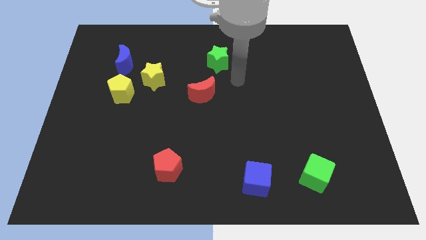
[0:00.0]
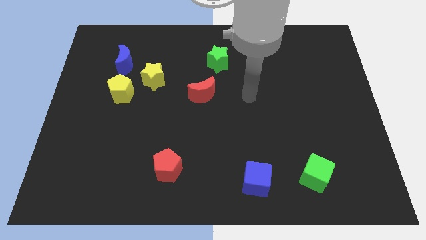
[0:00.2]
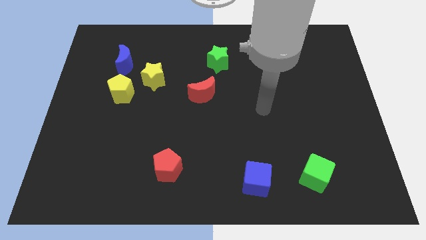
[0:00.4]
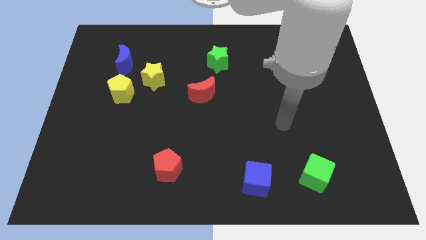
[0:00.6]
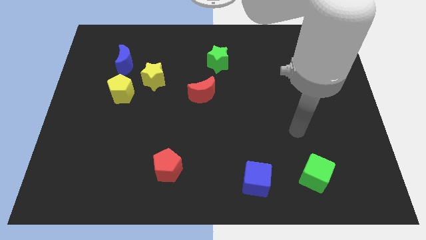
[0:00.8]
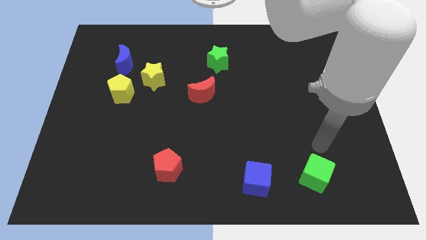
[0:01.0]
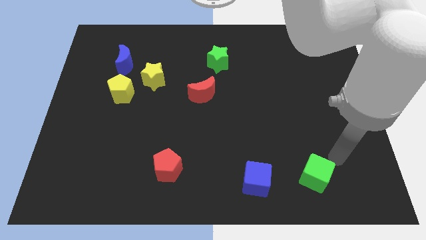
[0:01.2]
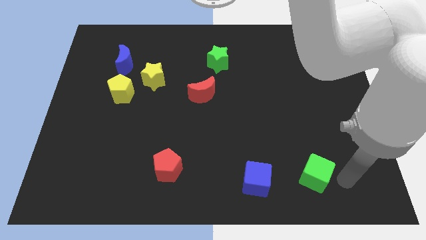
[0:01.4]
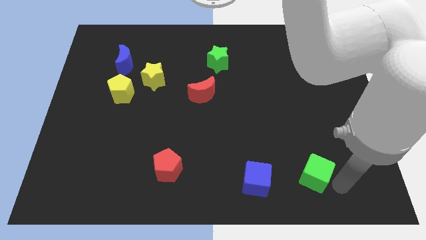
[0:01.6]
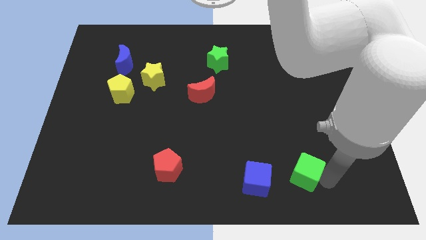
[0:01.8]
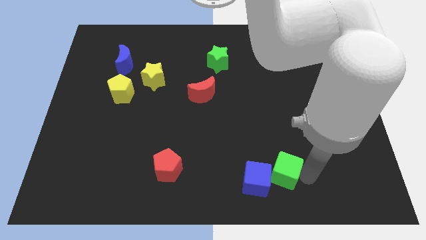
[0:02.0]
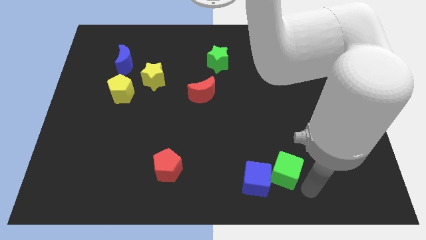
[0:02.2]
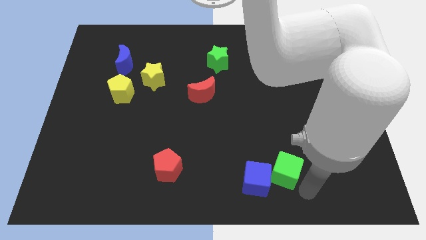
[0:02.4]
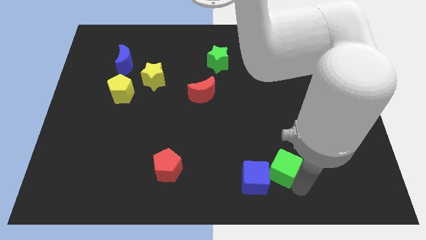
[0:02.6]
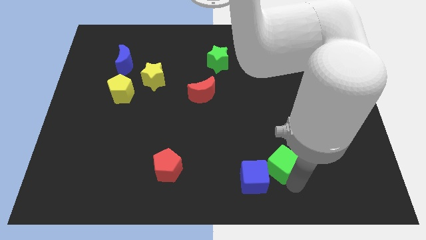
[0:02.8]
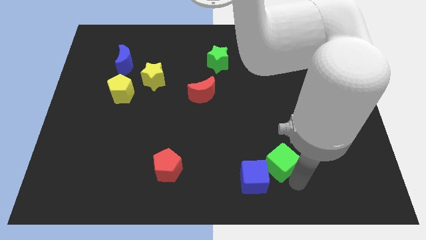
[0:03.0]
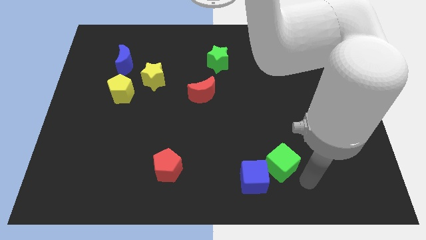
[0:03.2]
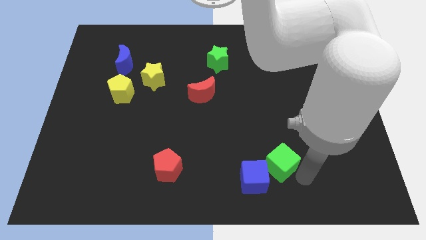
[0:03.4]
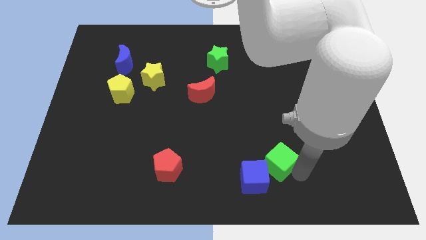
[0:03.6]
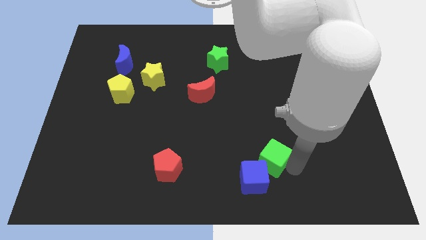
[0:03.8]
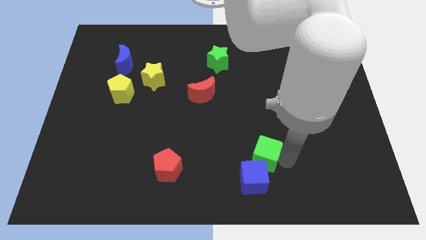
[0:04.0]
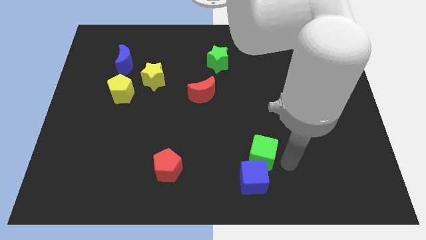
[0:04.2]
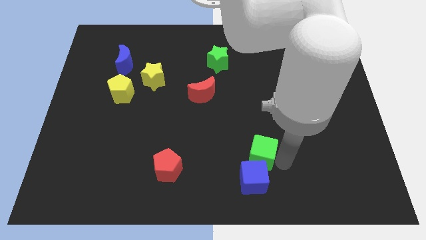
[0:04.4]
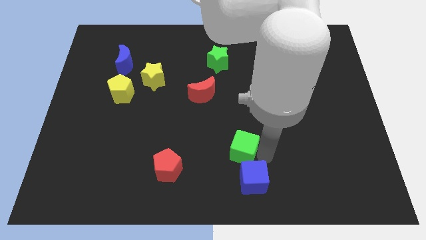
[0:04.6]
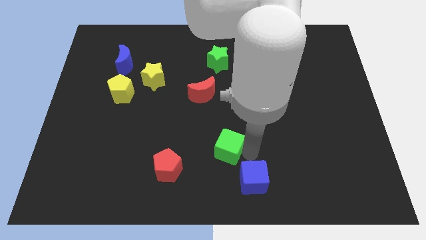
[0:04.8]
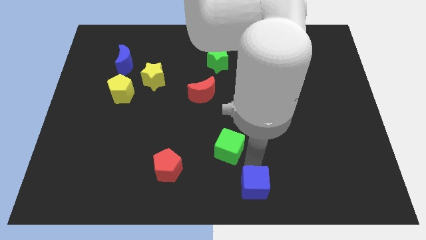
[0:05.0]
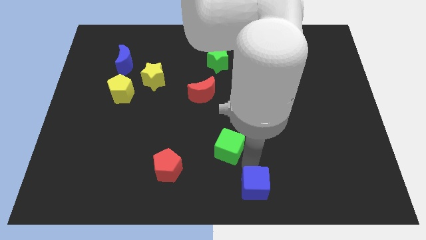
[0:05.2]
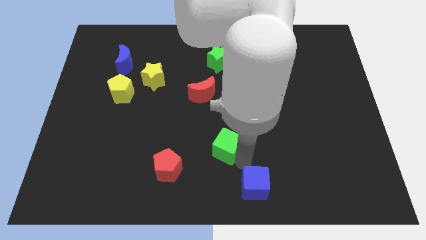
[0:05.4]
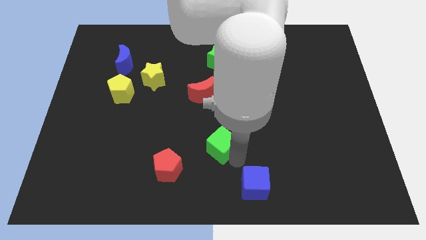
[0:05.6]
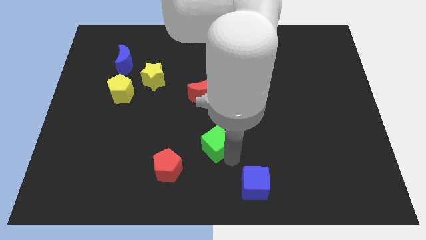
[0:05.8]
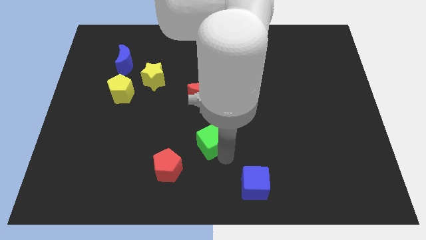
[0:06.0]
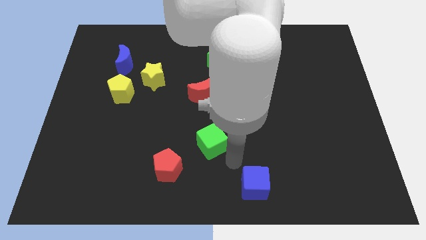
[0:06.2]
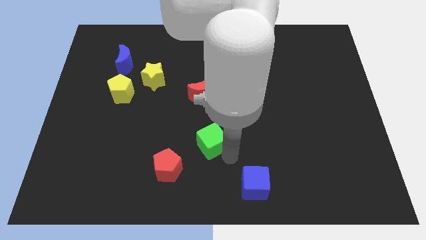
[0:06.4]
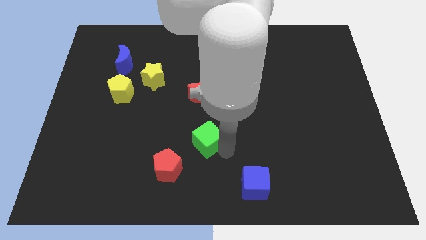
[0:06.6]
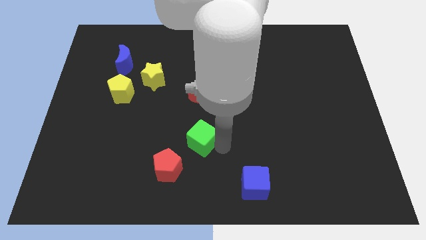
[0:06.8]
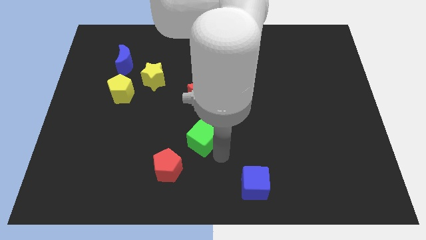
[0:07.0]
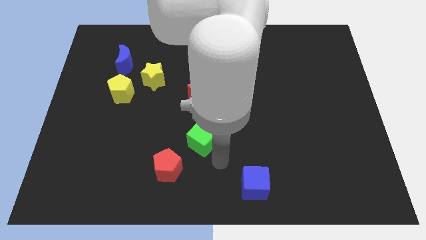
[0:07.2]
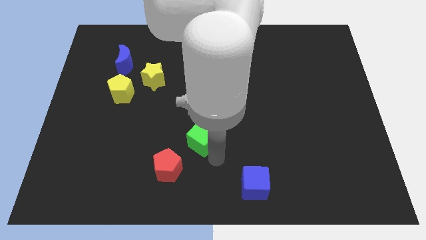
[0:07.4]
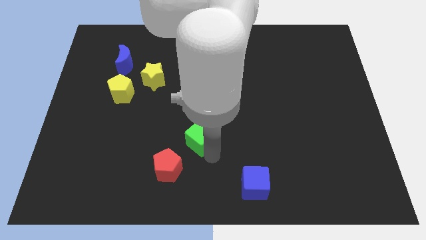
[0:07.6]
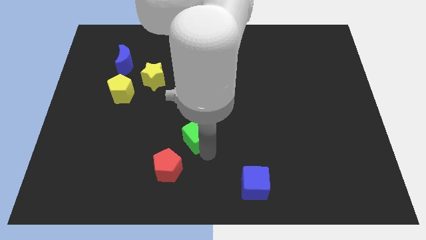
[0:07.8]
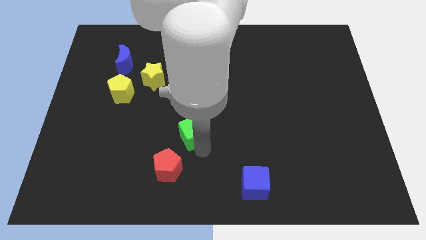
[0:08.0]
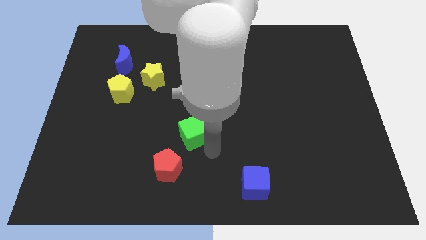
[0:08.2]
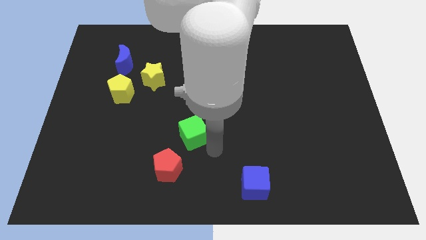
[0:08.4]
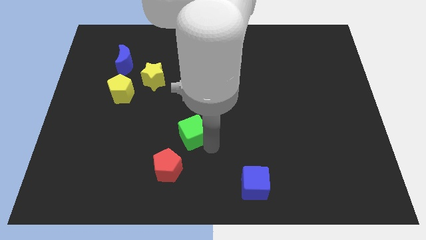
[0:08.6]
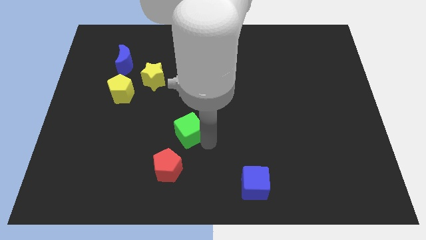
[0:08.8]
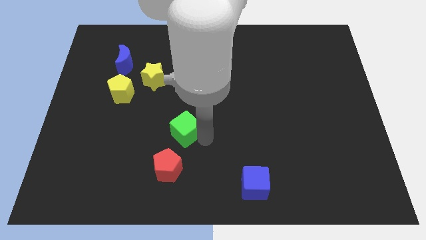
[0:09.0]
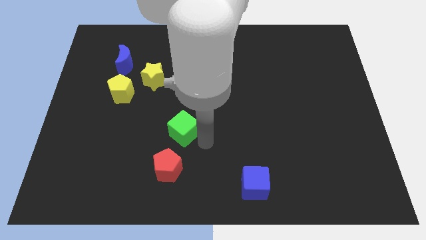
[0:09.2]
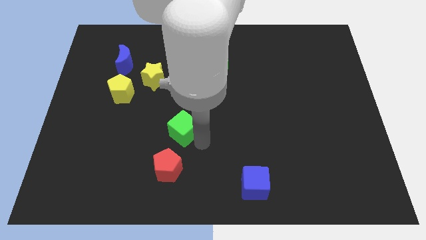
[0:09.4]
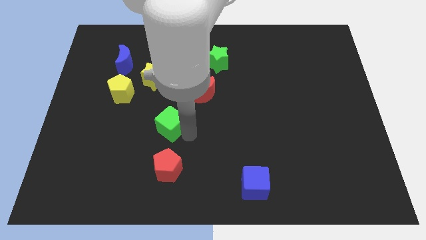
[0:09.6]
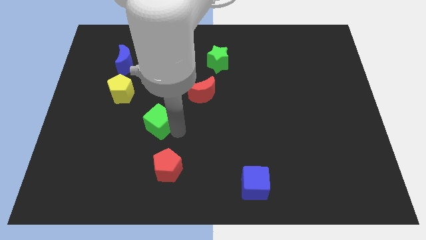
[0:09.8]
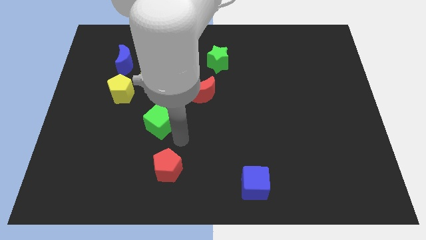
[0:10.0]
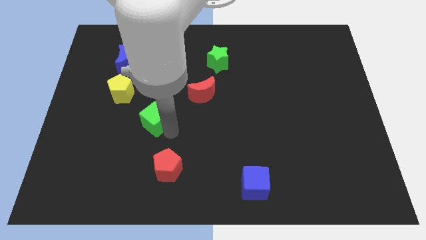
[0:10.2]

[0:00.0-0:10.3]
slide the green cube diagonally down and to the right of the yellow pentagon

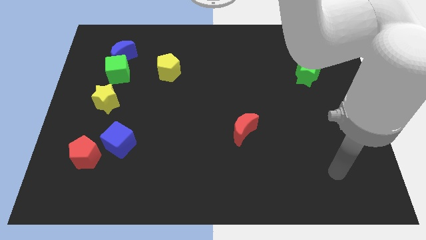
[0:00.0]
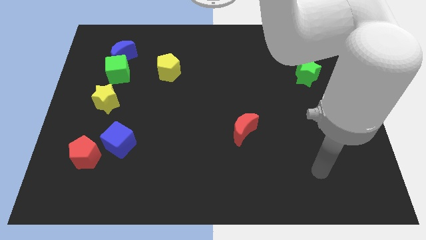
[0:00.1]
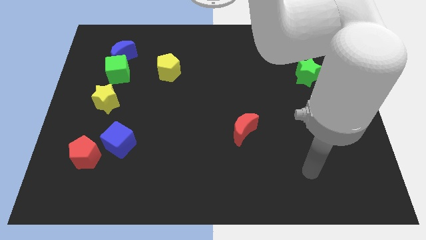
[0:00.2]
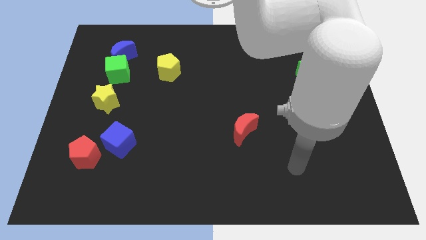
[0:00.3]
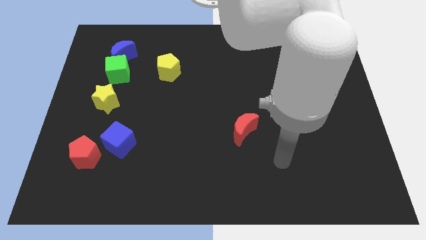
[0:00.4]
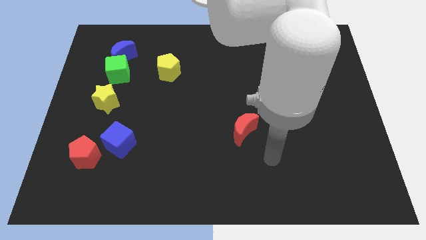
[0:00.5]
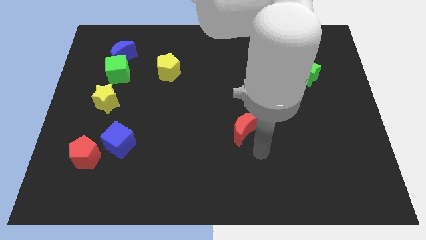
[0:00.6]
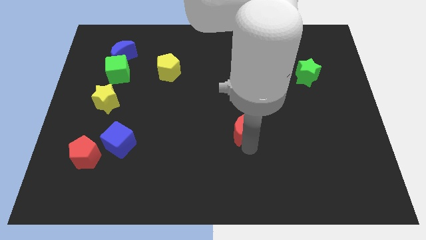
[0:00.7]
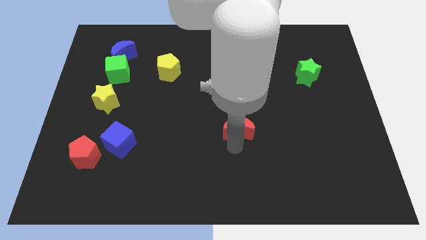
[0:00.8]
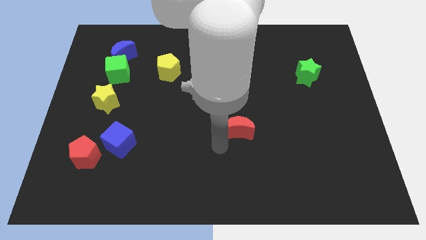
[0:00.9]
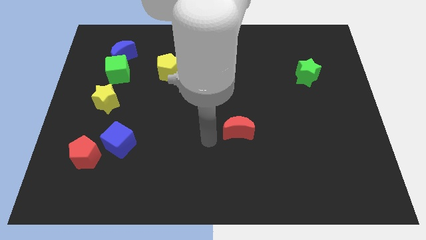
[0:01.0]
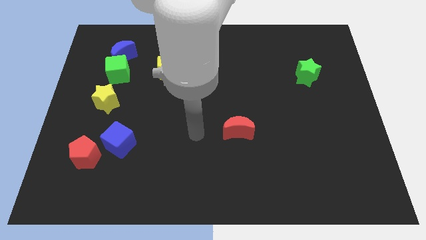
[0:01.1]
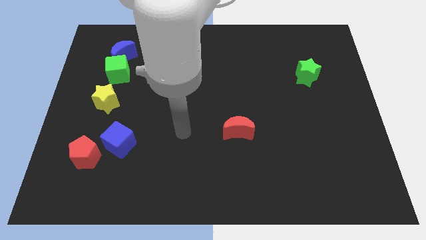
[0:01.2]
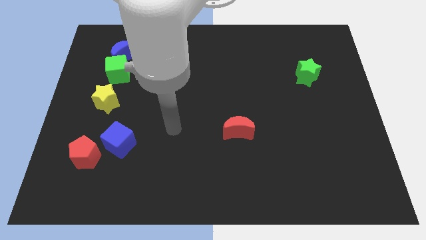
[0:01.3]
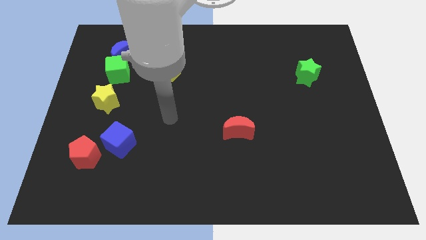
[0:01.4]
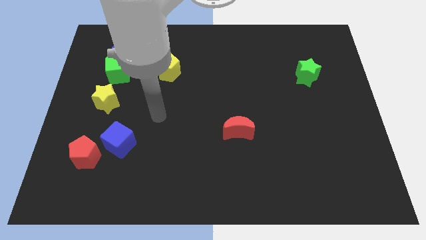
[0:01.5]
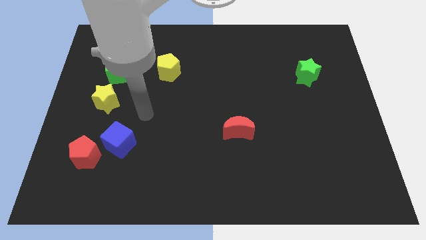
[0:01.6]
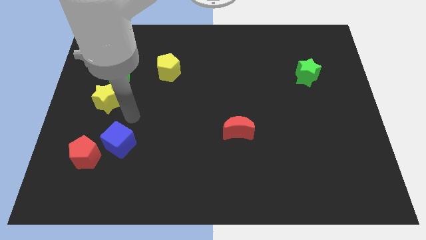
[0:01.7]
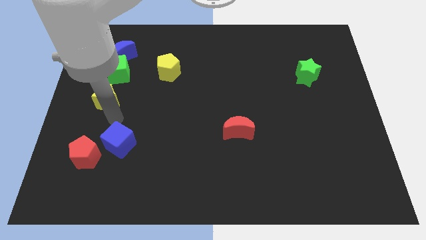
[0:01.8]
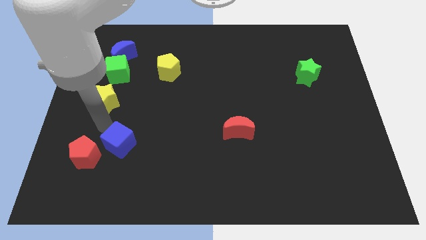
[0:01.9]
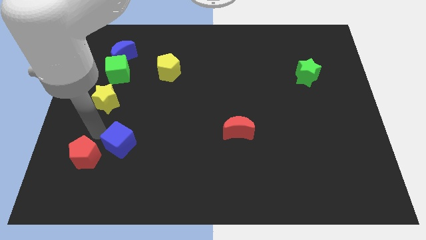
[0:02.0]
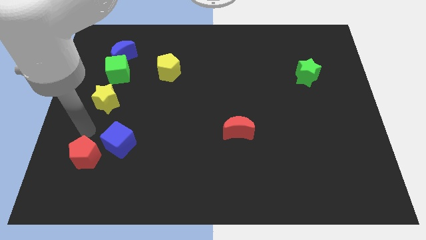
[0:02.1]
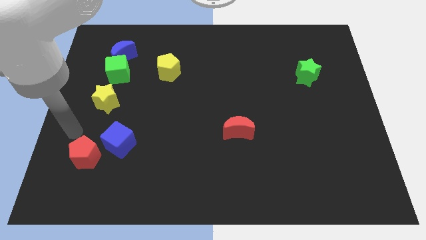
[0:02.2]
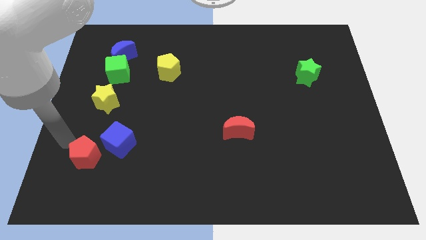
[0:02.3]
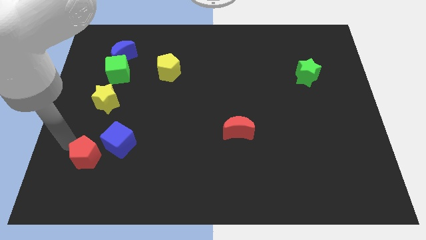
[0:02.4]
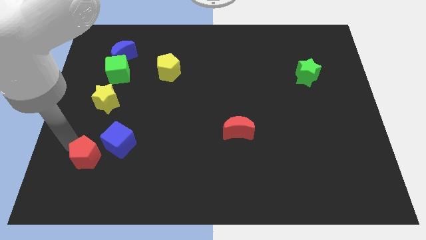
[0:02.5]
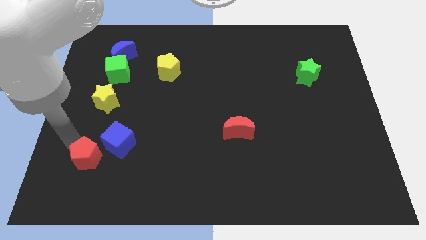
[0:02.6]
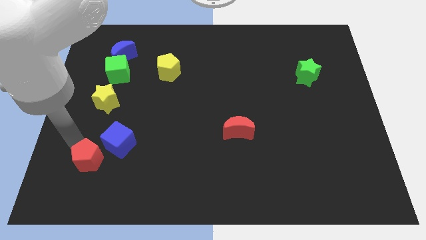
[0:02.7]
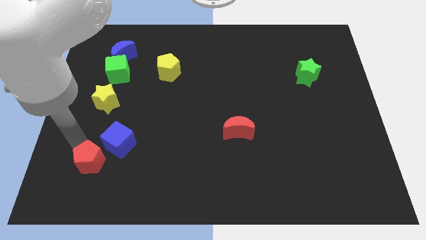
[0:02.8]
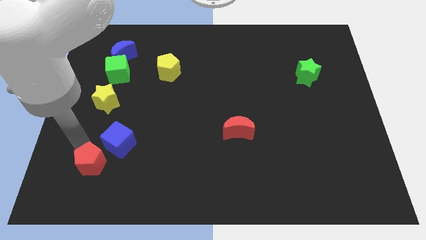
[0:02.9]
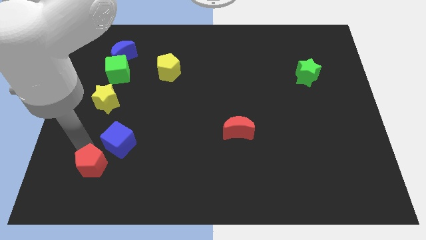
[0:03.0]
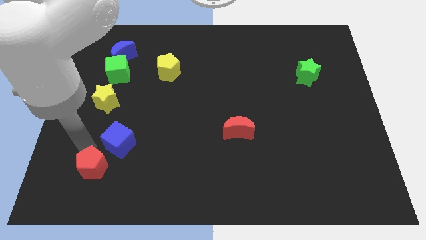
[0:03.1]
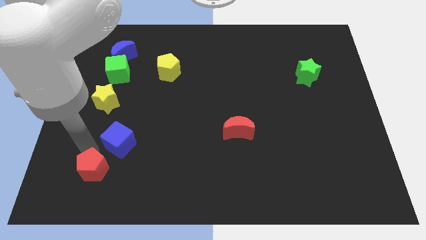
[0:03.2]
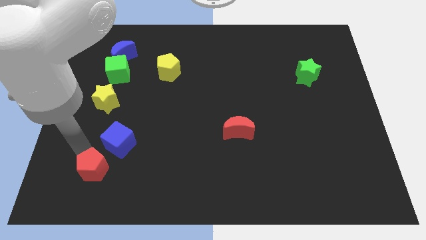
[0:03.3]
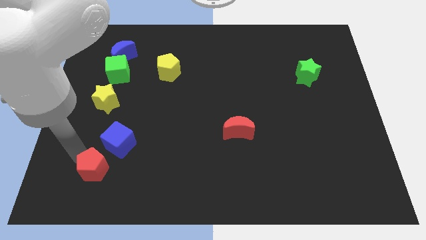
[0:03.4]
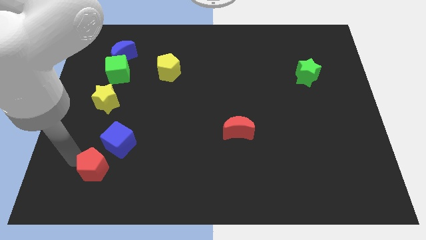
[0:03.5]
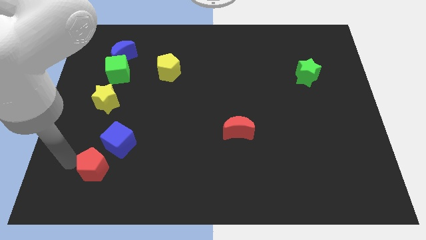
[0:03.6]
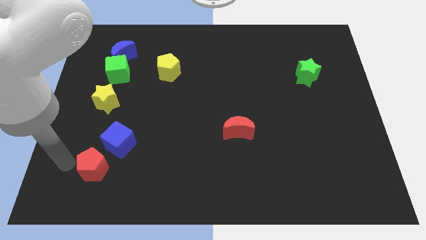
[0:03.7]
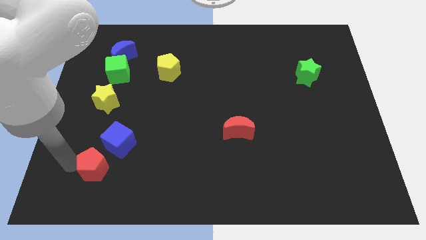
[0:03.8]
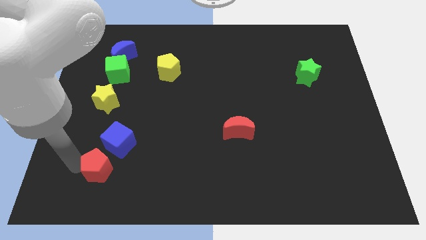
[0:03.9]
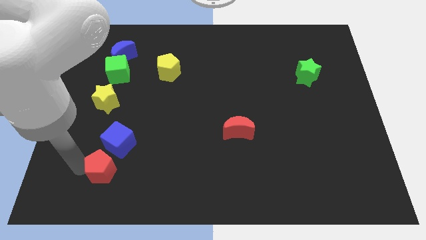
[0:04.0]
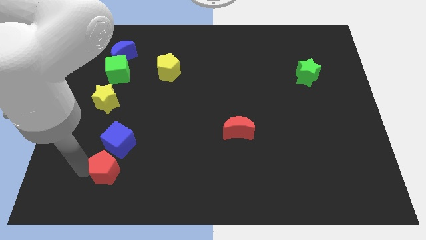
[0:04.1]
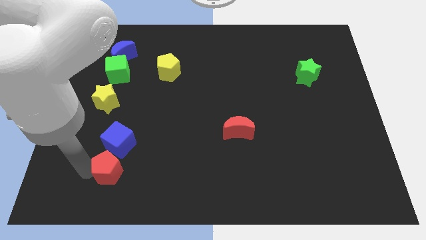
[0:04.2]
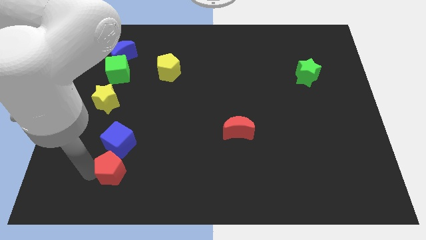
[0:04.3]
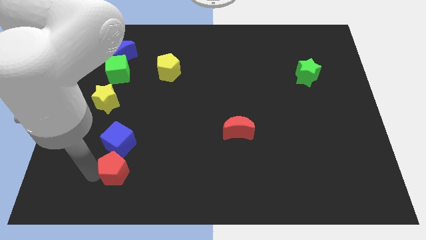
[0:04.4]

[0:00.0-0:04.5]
move the red pentagon to the bottom right side of the blue cube
